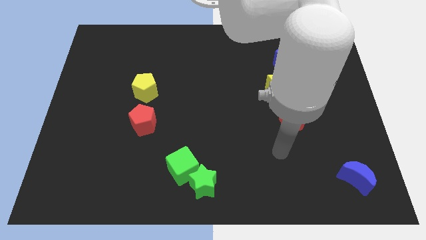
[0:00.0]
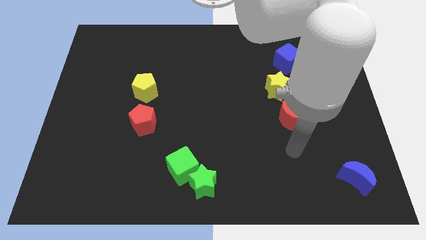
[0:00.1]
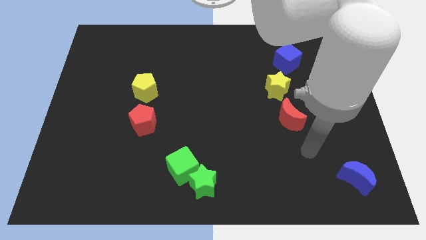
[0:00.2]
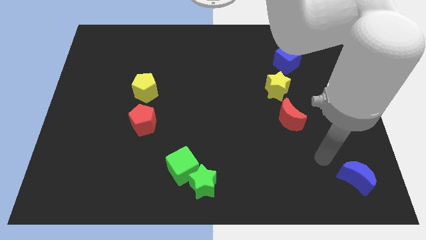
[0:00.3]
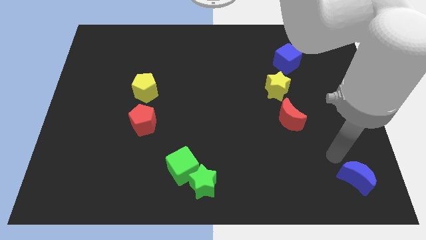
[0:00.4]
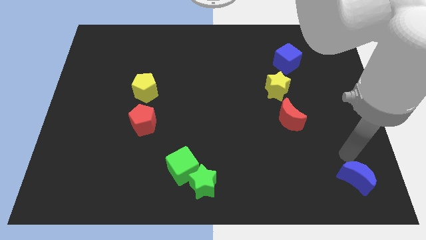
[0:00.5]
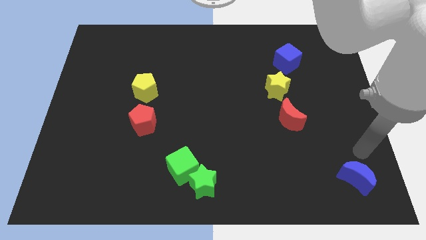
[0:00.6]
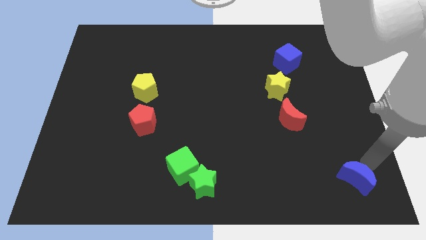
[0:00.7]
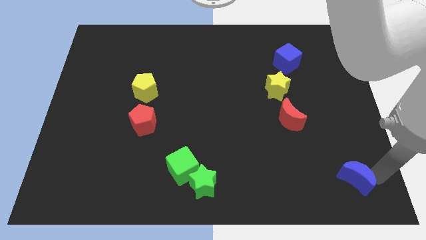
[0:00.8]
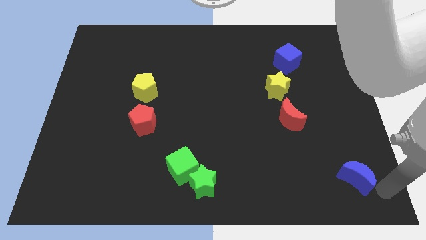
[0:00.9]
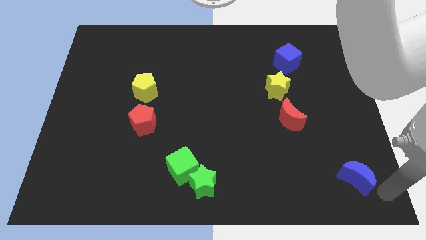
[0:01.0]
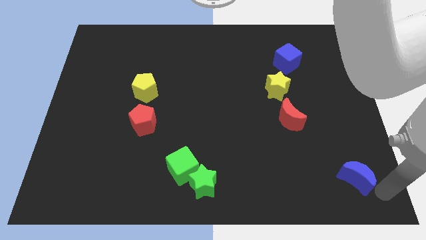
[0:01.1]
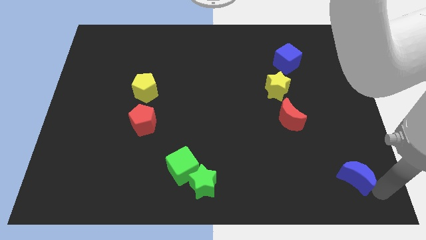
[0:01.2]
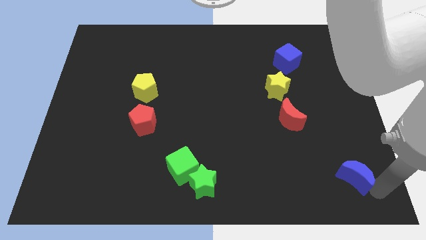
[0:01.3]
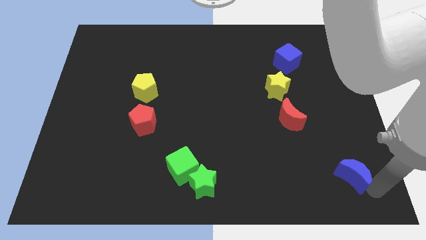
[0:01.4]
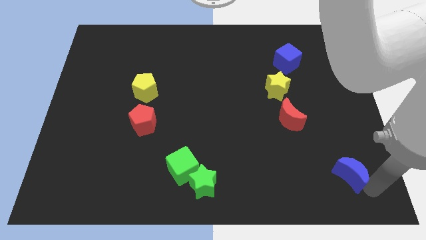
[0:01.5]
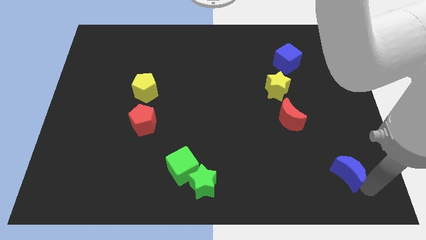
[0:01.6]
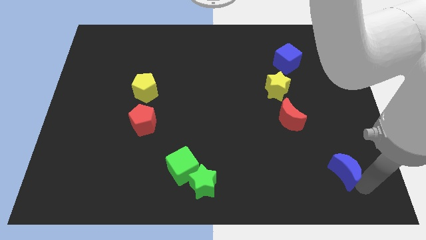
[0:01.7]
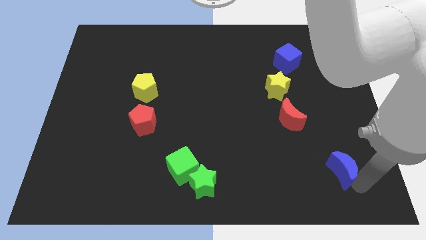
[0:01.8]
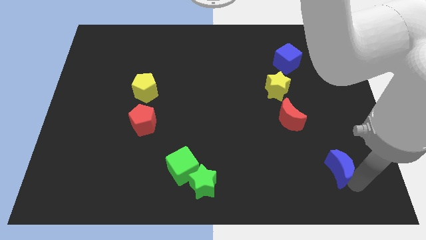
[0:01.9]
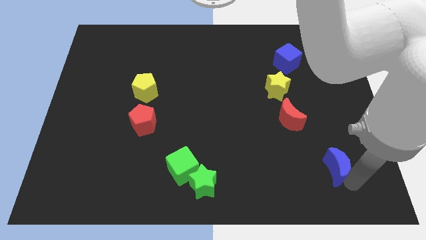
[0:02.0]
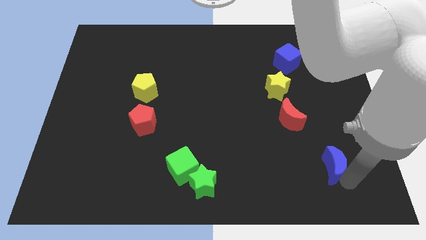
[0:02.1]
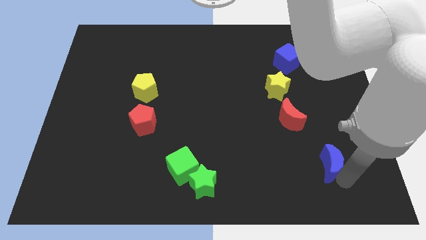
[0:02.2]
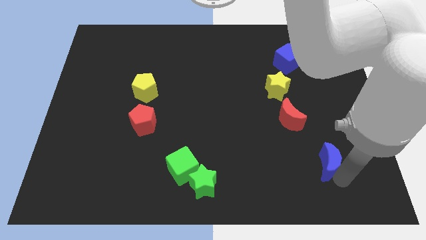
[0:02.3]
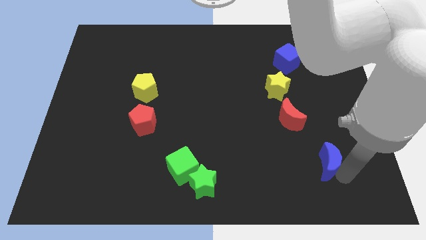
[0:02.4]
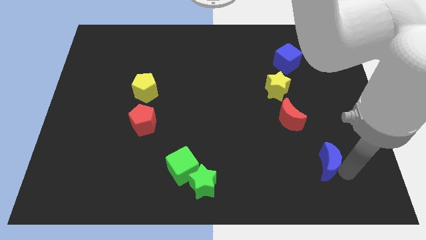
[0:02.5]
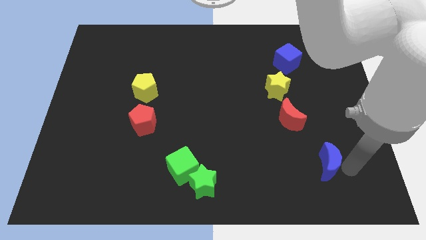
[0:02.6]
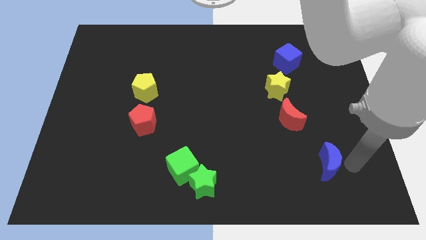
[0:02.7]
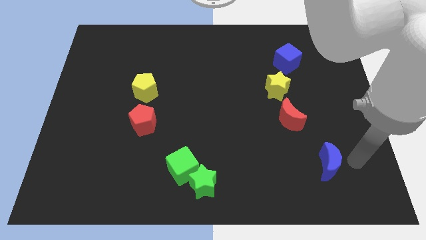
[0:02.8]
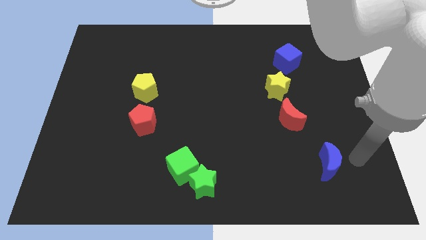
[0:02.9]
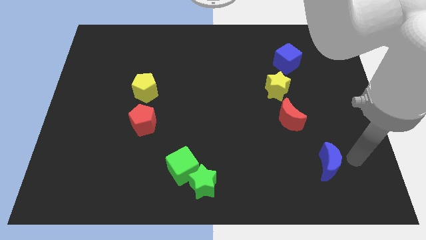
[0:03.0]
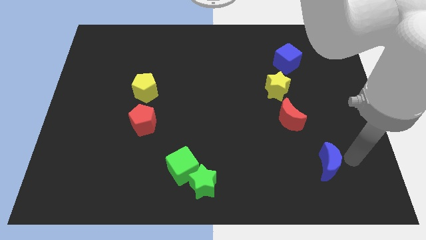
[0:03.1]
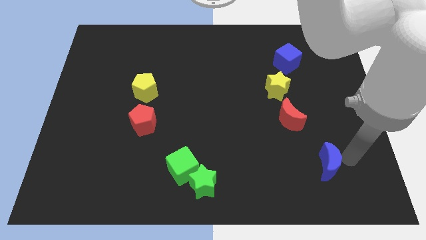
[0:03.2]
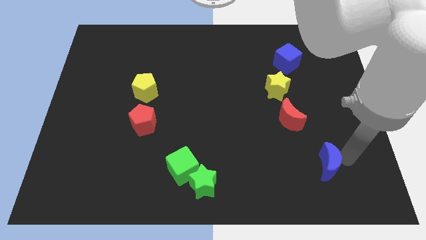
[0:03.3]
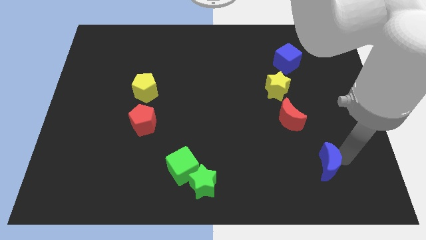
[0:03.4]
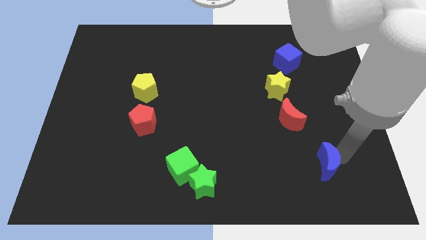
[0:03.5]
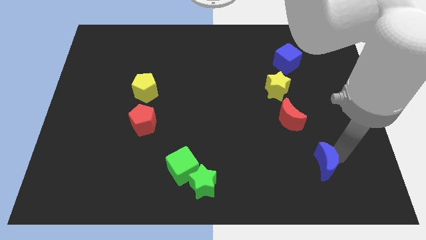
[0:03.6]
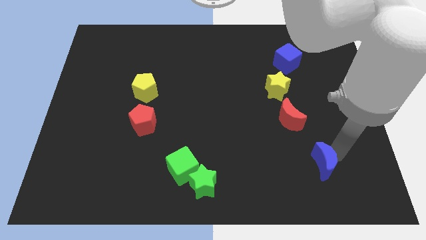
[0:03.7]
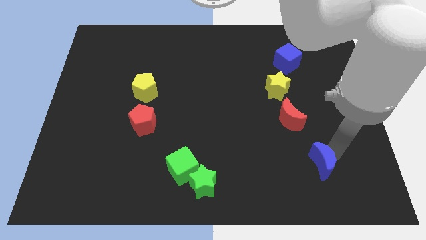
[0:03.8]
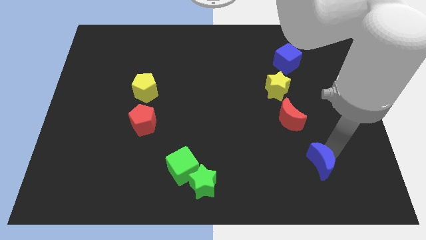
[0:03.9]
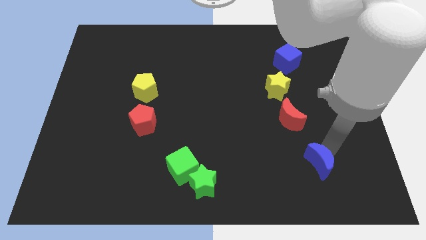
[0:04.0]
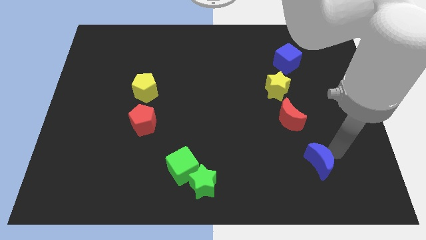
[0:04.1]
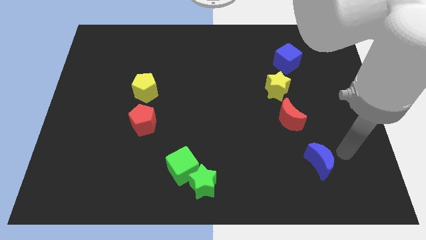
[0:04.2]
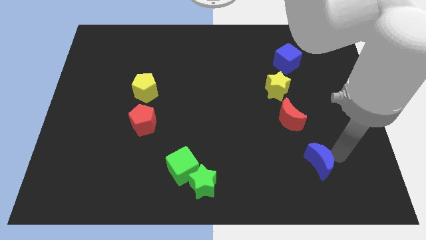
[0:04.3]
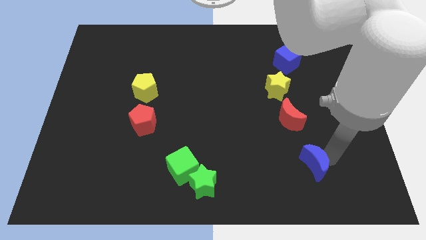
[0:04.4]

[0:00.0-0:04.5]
move the blue moon to the left a little bit

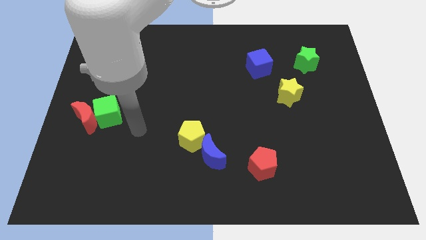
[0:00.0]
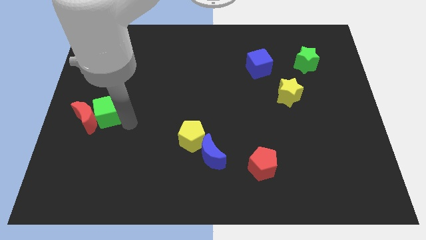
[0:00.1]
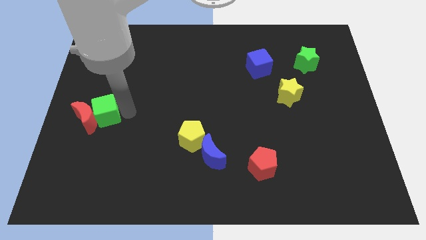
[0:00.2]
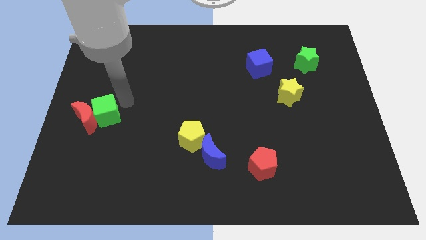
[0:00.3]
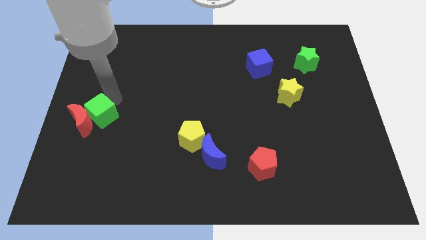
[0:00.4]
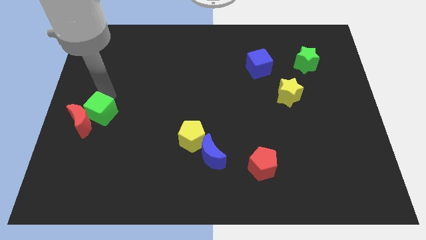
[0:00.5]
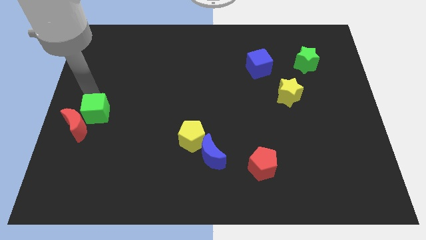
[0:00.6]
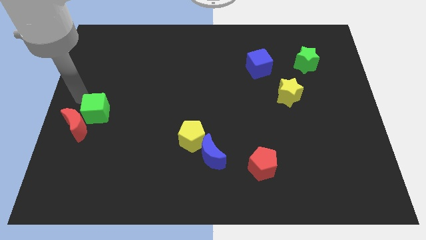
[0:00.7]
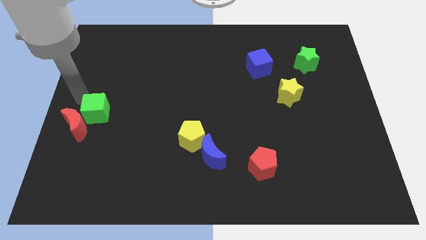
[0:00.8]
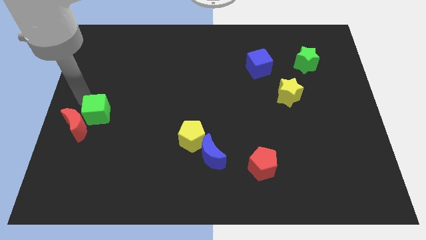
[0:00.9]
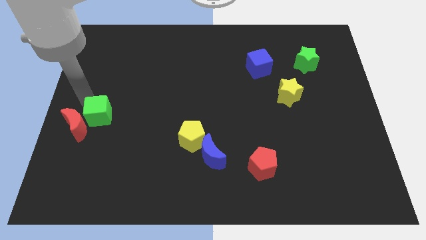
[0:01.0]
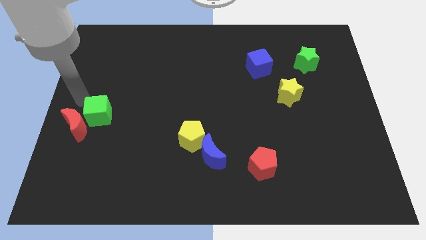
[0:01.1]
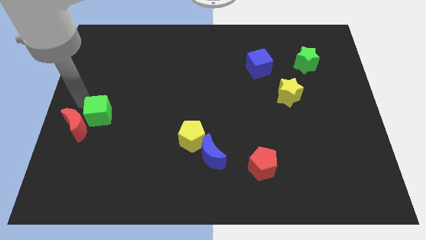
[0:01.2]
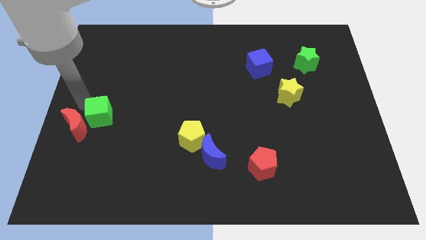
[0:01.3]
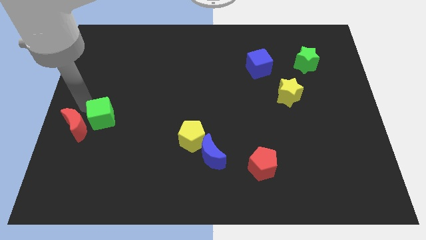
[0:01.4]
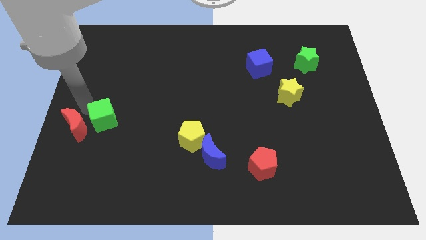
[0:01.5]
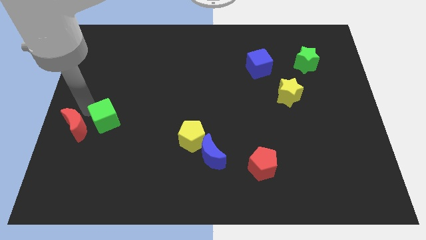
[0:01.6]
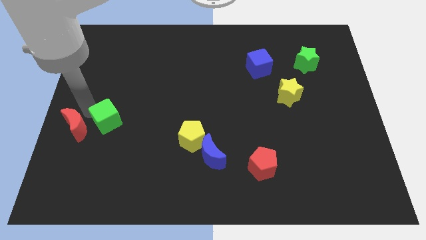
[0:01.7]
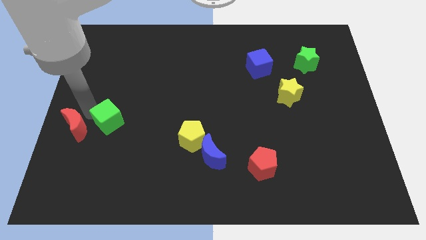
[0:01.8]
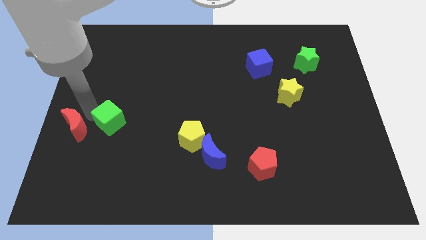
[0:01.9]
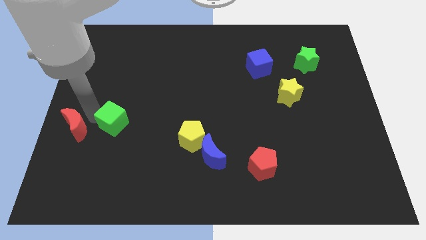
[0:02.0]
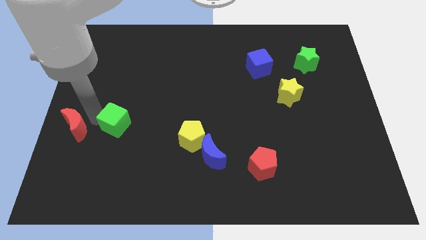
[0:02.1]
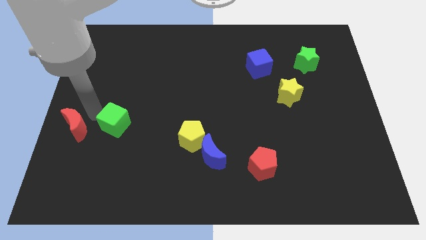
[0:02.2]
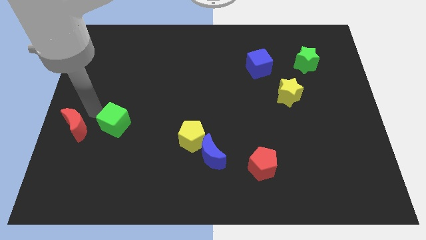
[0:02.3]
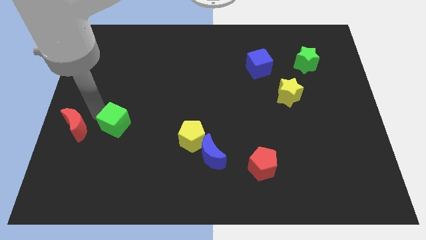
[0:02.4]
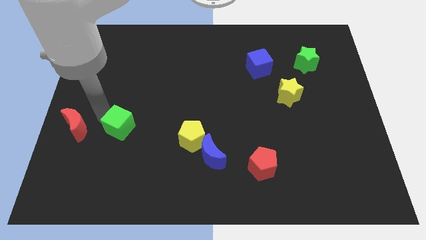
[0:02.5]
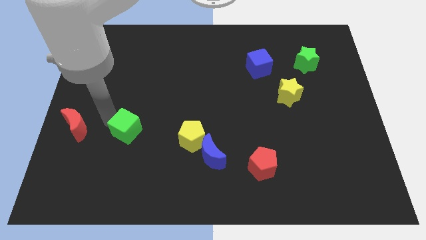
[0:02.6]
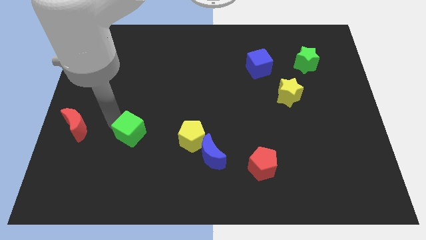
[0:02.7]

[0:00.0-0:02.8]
slide the green cube a little downwards and right

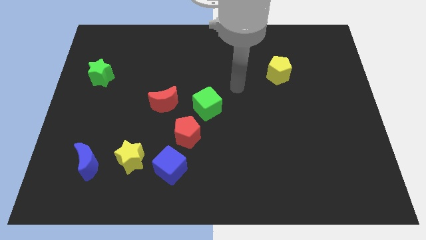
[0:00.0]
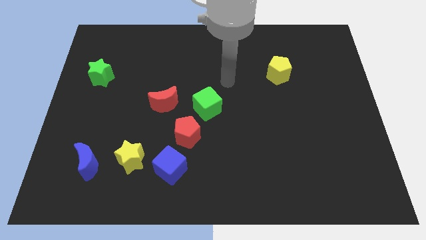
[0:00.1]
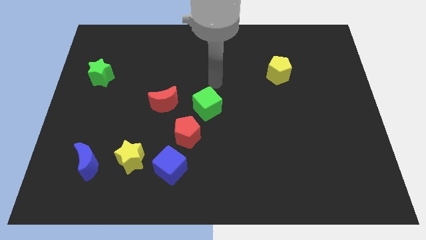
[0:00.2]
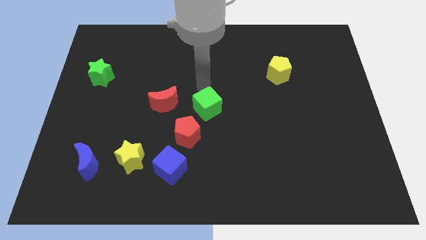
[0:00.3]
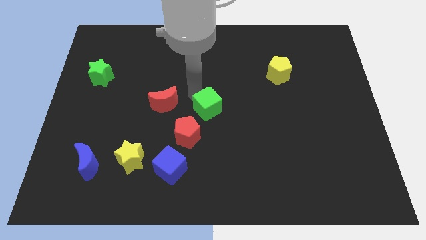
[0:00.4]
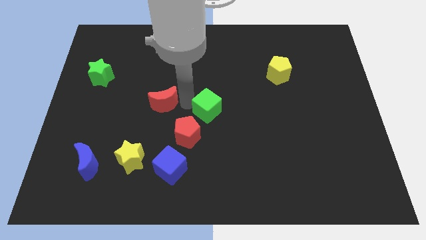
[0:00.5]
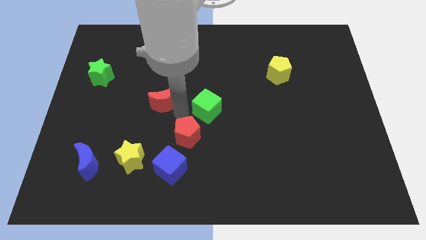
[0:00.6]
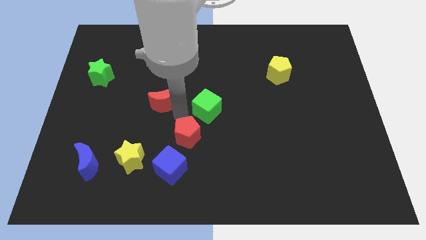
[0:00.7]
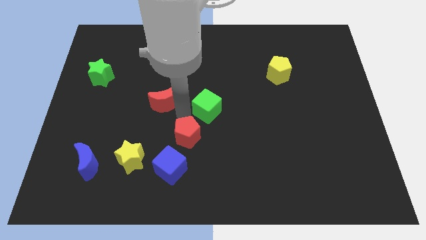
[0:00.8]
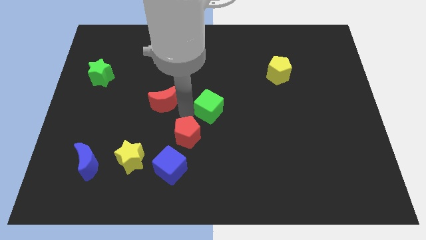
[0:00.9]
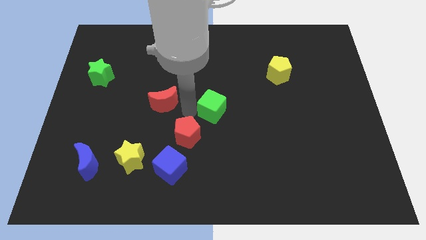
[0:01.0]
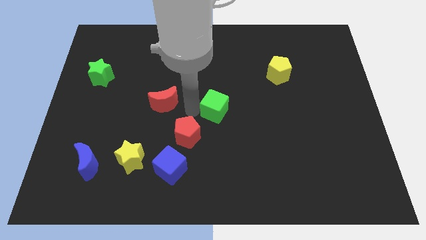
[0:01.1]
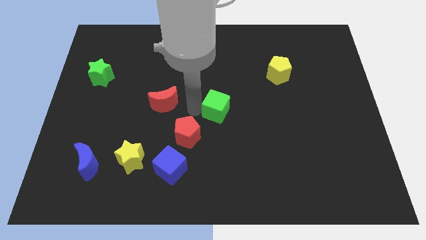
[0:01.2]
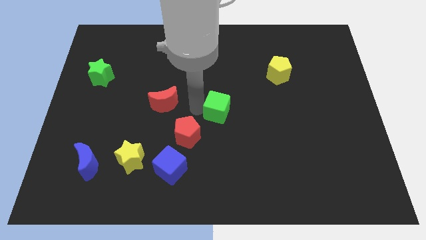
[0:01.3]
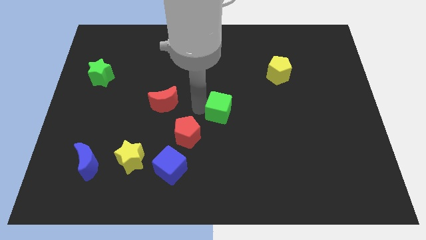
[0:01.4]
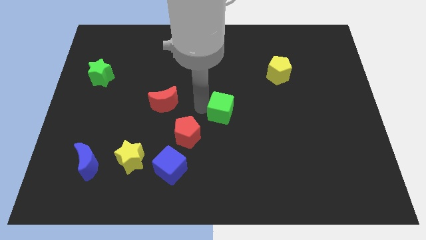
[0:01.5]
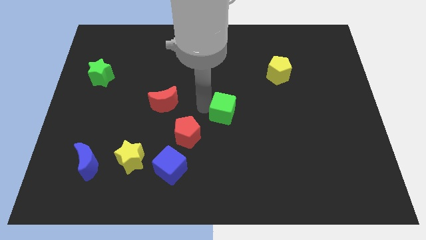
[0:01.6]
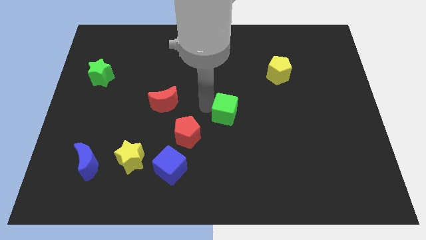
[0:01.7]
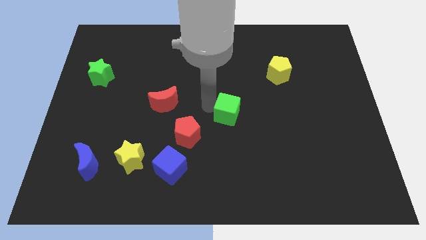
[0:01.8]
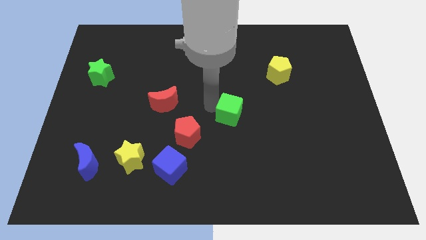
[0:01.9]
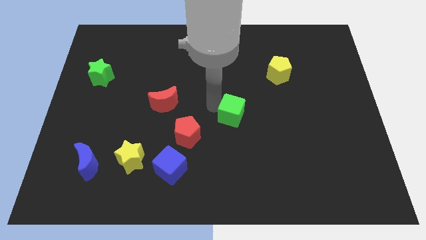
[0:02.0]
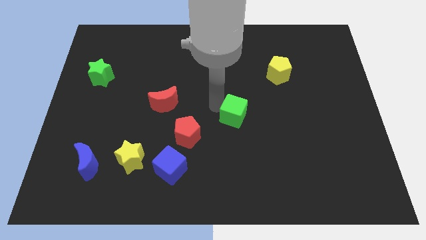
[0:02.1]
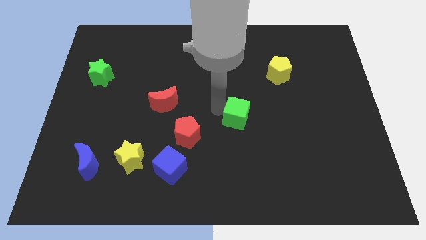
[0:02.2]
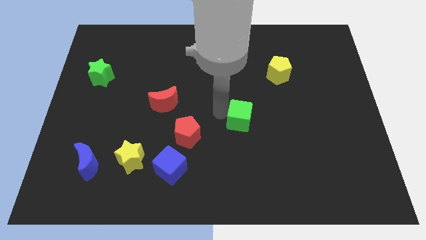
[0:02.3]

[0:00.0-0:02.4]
move the green cube slightly right
